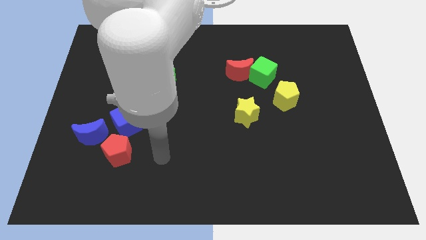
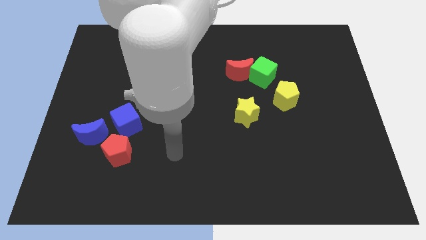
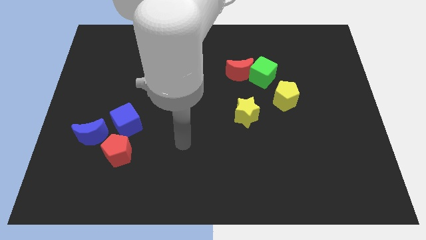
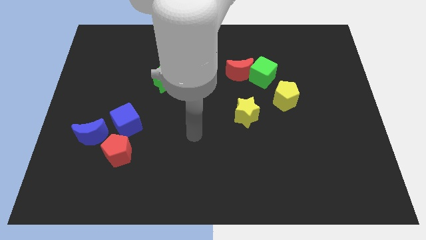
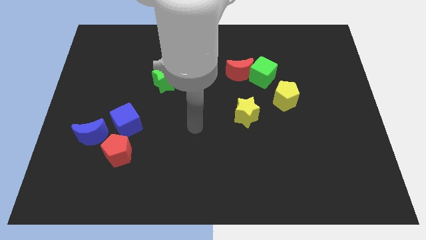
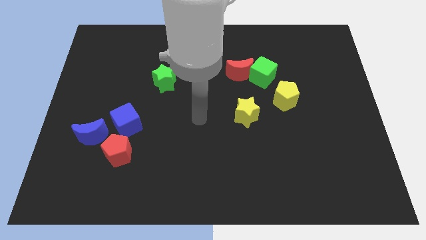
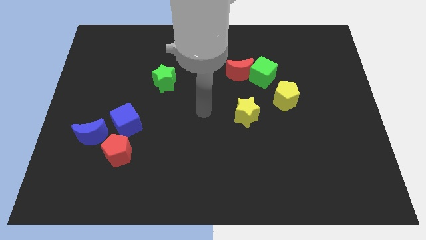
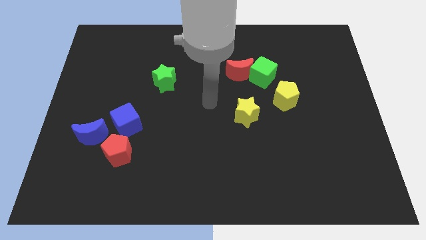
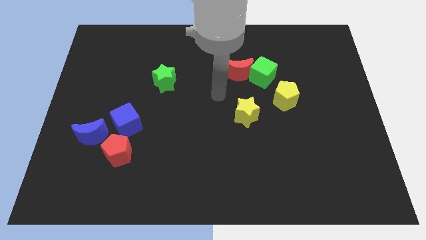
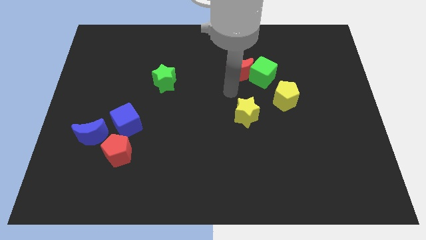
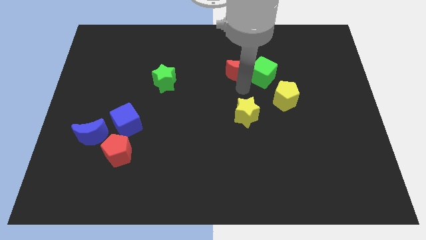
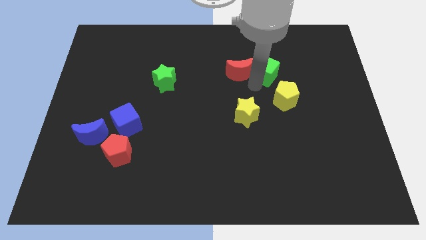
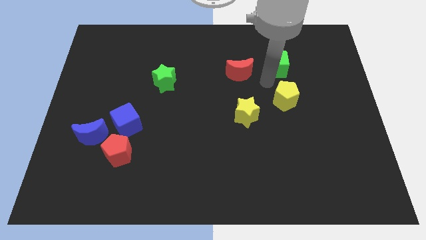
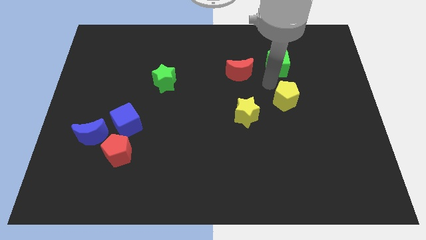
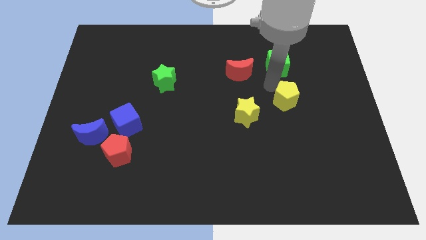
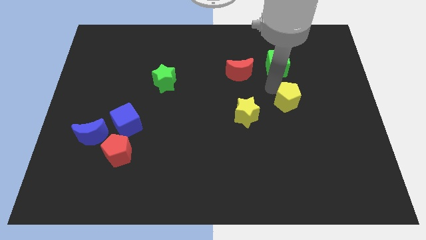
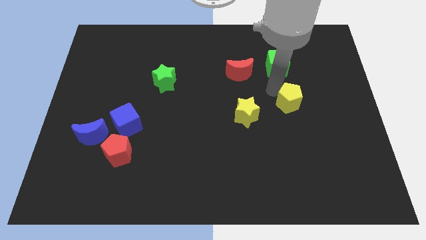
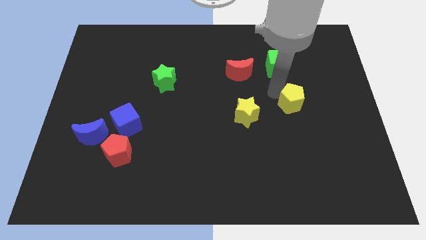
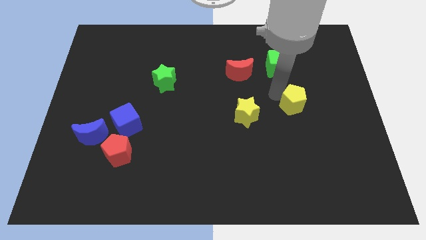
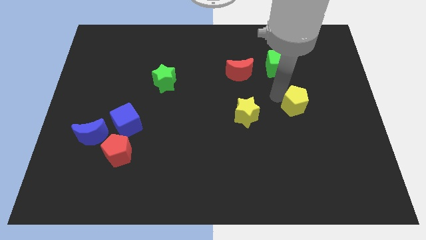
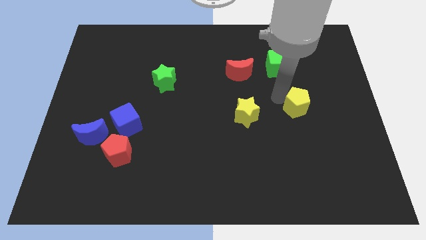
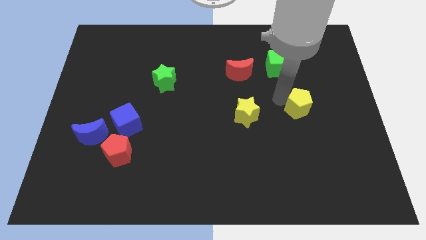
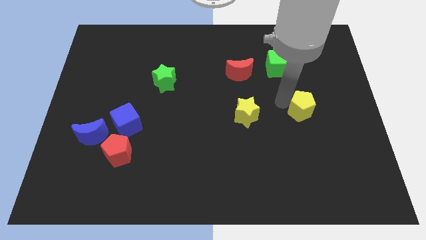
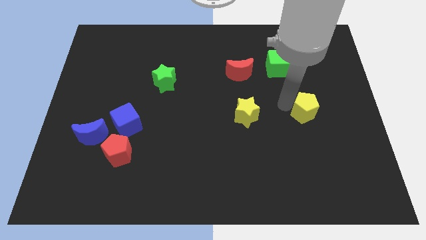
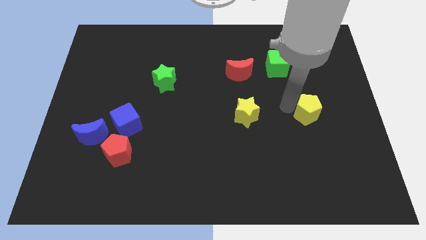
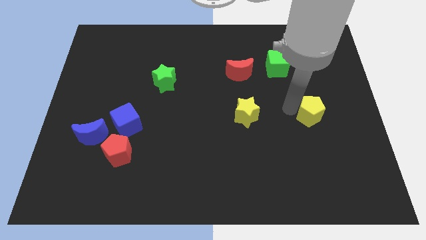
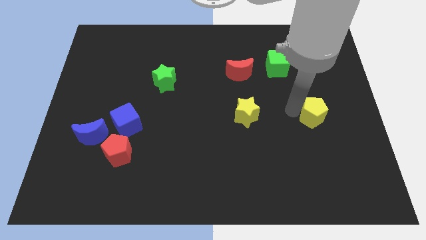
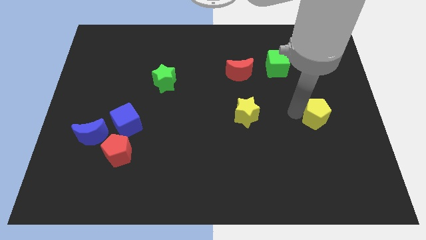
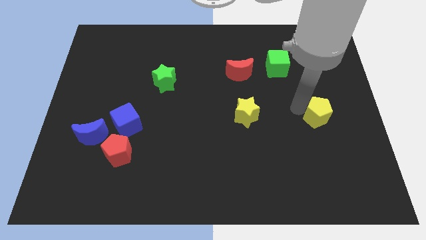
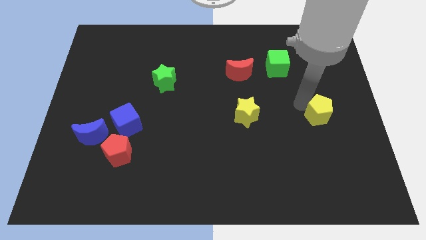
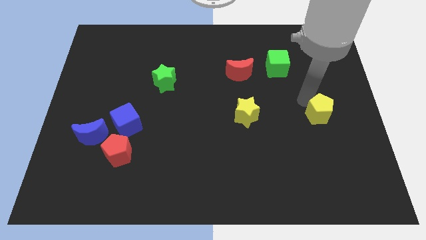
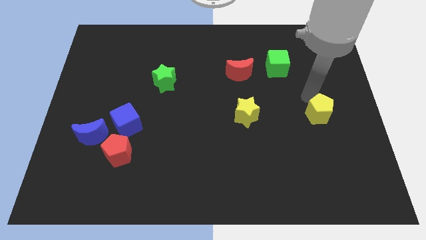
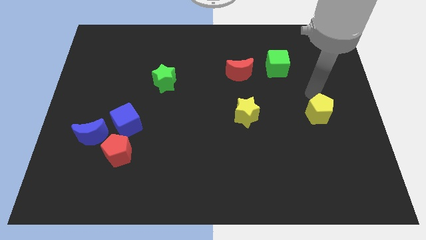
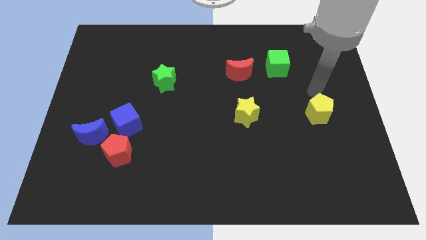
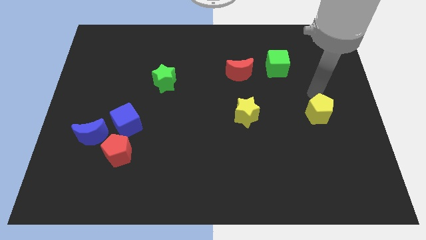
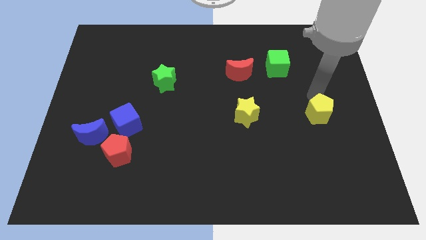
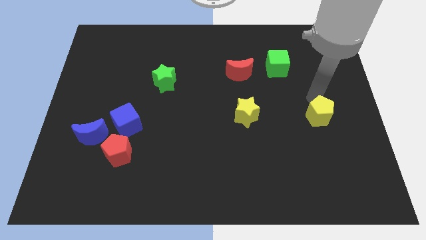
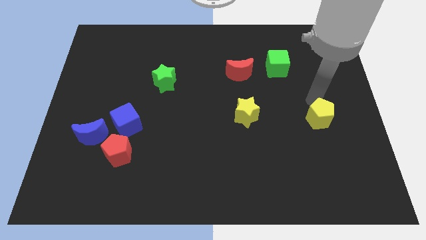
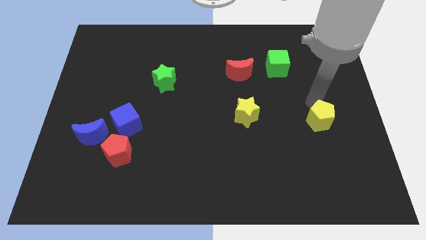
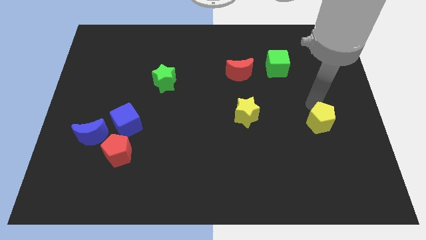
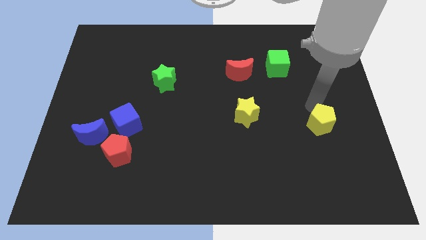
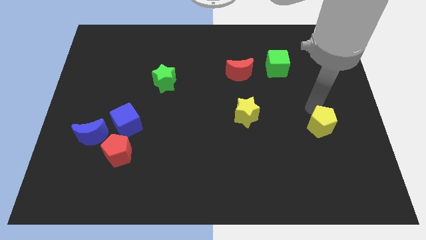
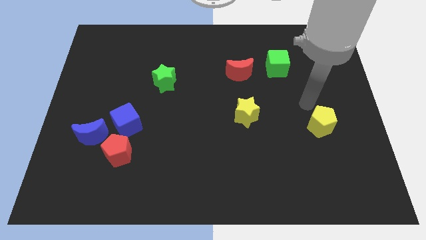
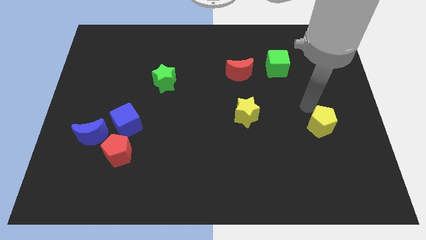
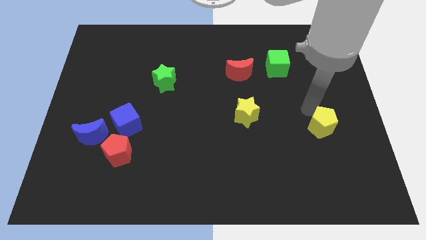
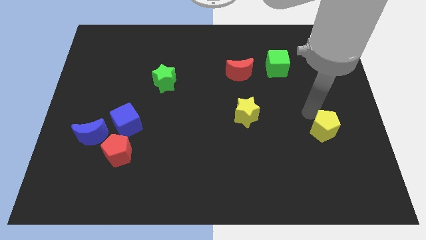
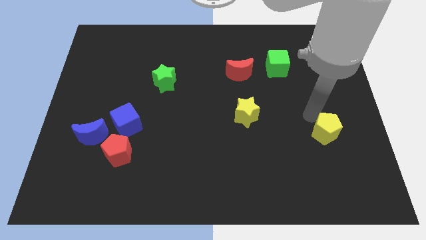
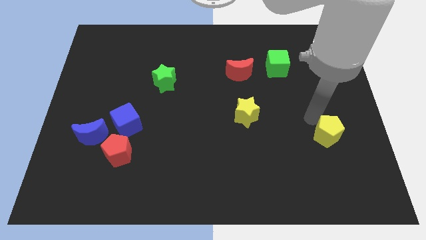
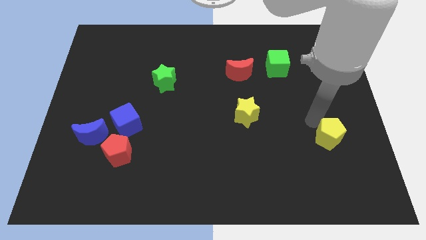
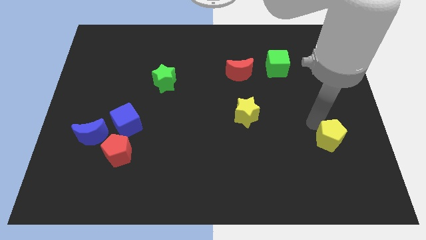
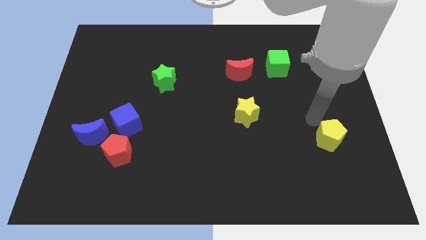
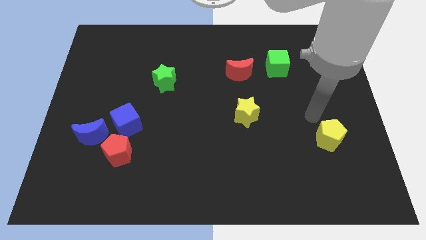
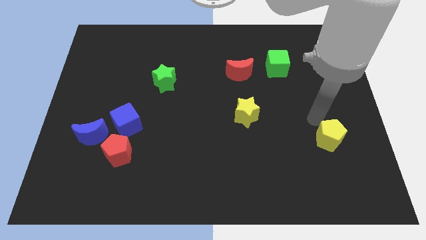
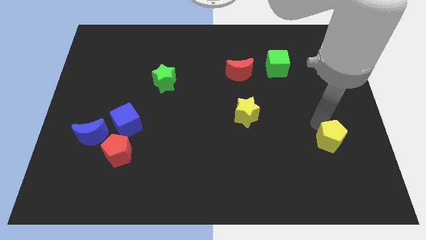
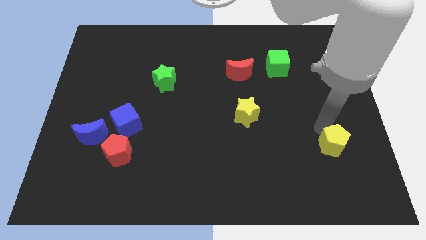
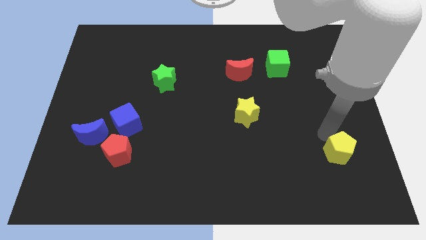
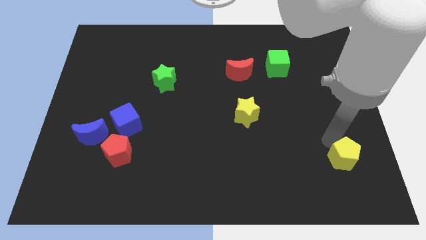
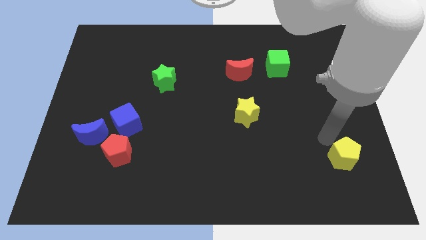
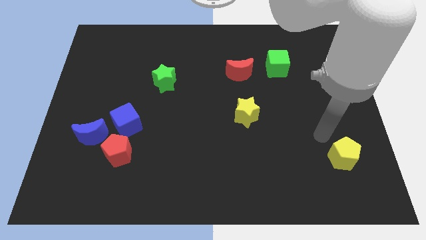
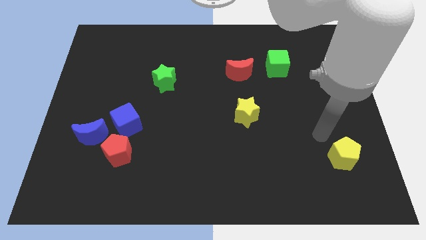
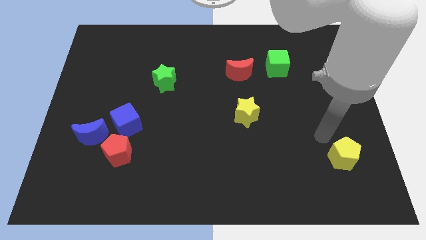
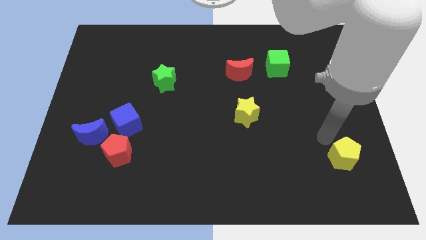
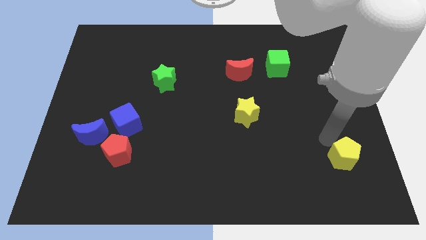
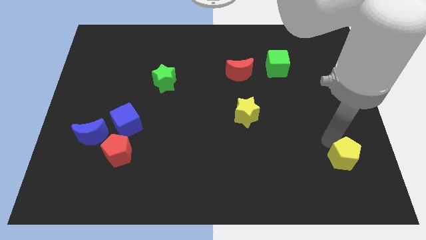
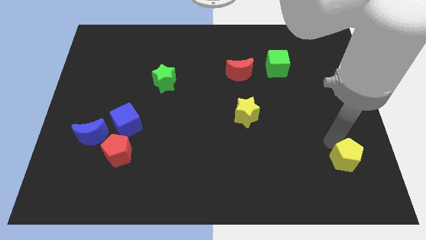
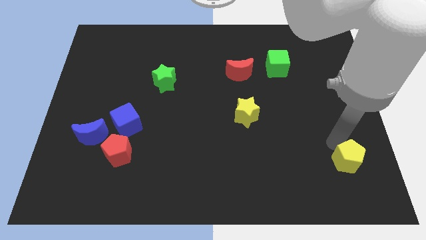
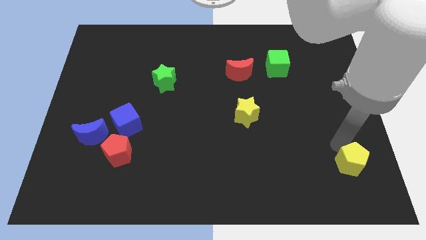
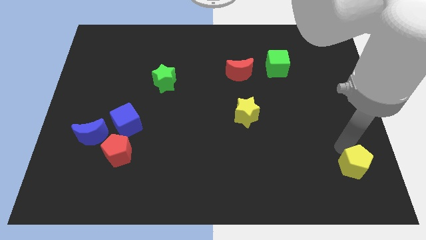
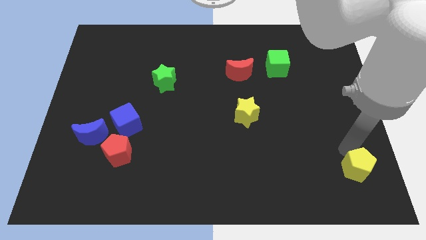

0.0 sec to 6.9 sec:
move the yellow pentagon to the bottom right
